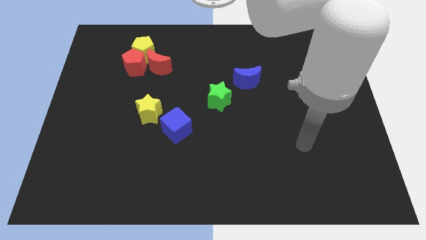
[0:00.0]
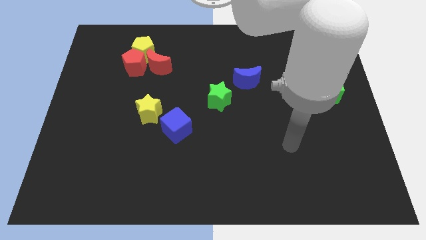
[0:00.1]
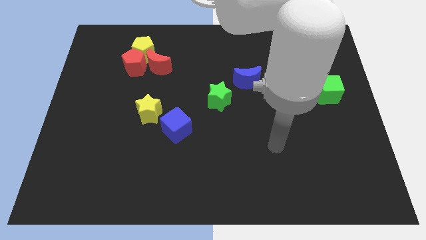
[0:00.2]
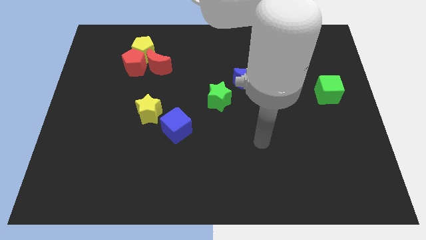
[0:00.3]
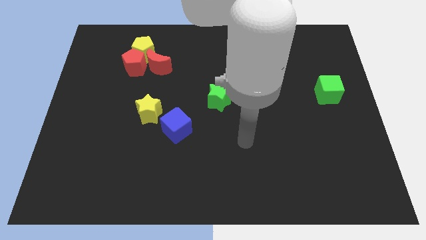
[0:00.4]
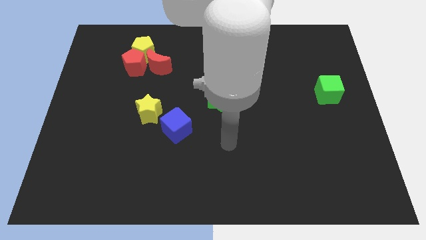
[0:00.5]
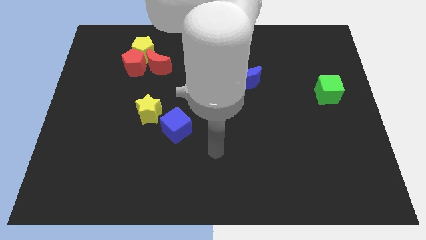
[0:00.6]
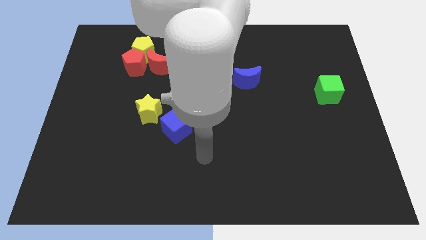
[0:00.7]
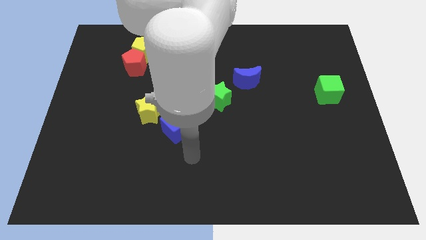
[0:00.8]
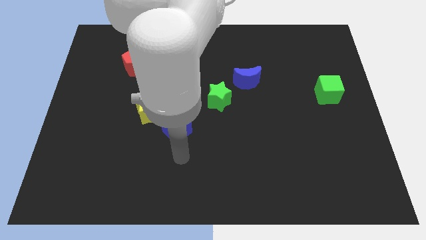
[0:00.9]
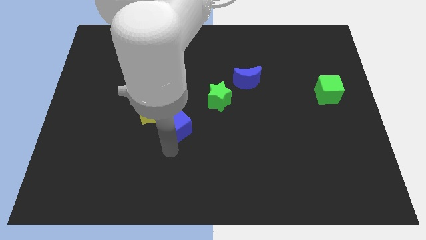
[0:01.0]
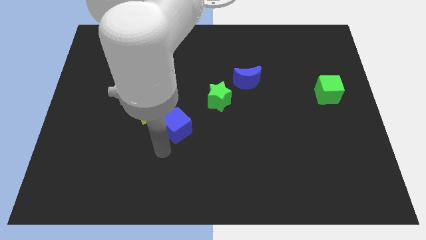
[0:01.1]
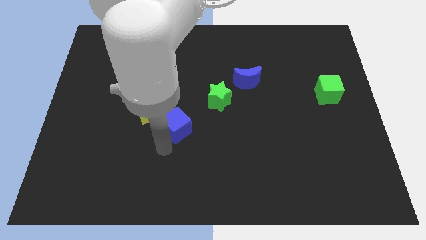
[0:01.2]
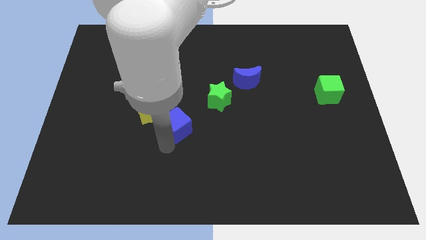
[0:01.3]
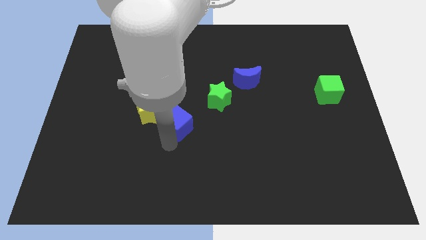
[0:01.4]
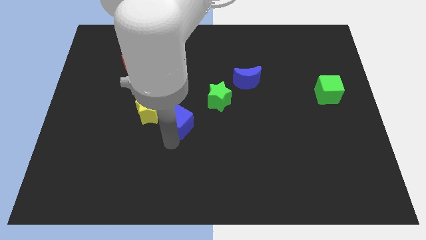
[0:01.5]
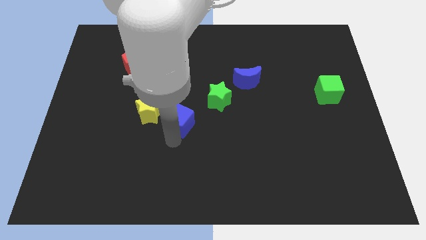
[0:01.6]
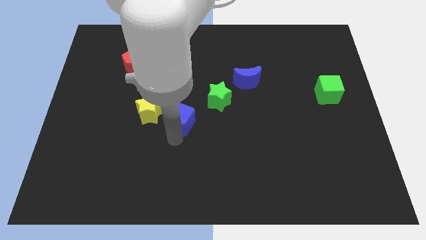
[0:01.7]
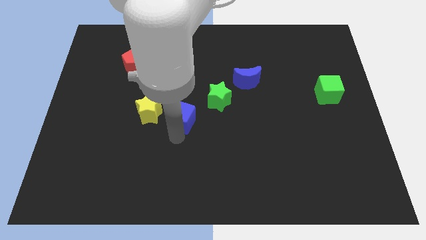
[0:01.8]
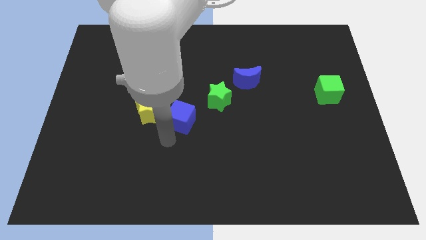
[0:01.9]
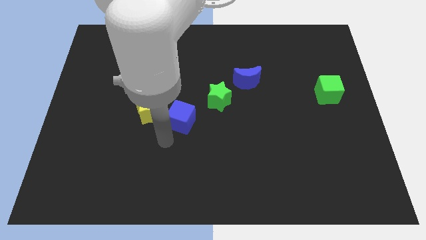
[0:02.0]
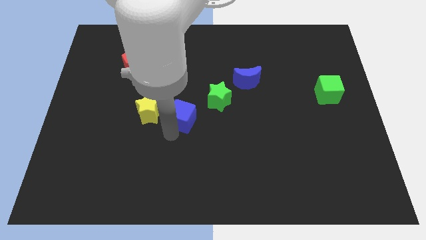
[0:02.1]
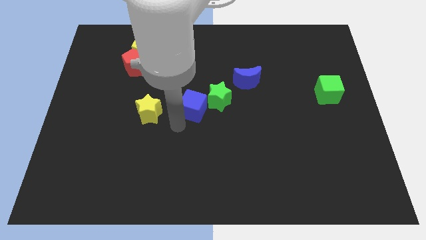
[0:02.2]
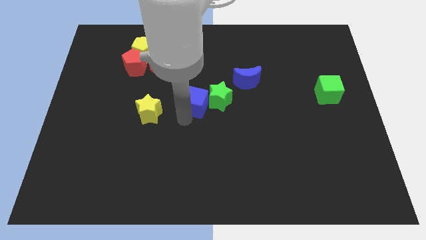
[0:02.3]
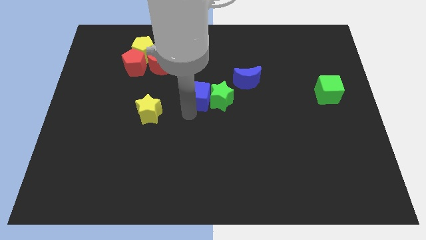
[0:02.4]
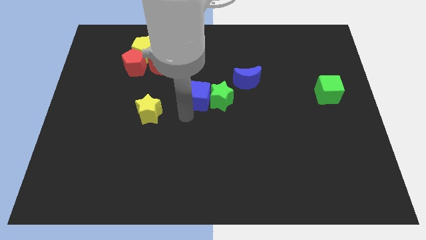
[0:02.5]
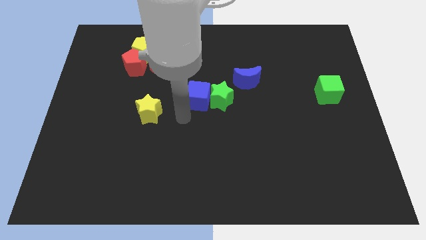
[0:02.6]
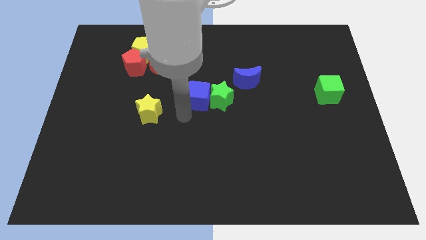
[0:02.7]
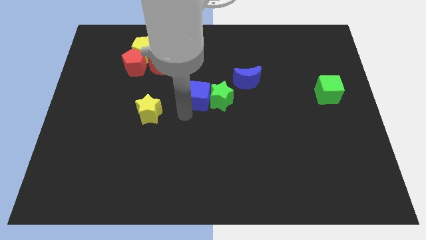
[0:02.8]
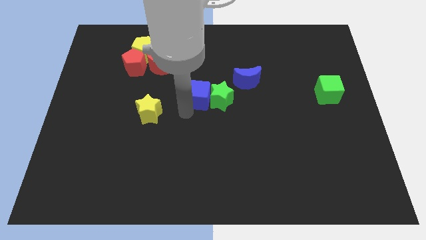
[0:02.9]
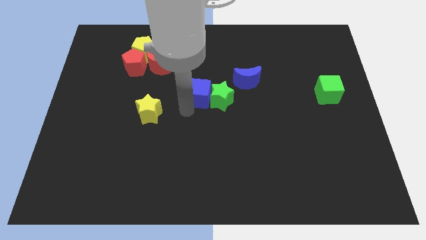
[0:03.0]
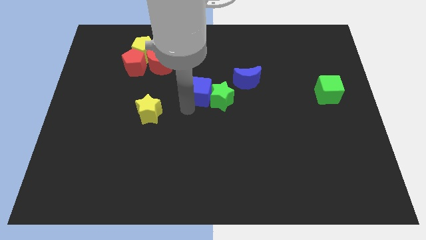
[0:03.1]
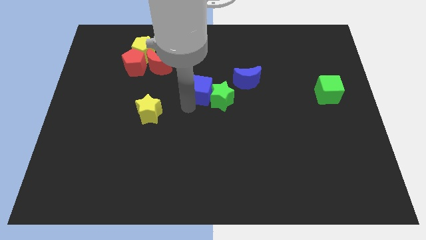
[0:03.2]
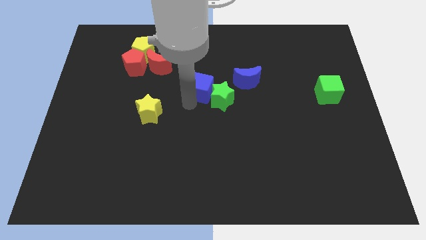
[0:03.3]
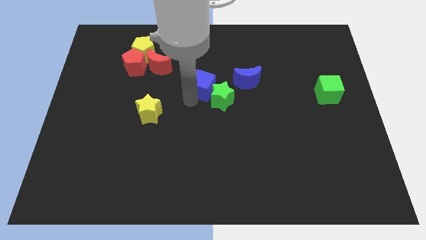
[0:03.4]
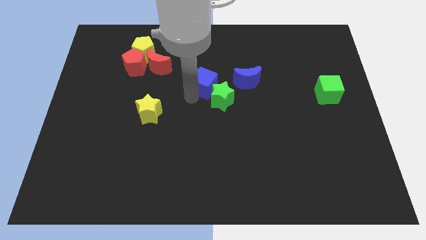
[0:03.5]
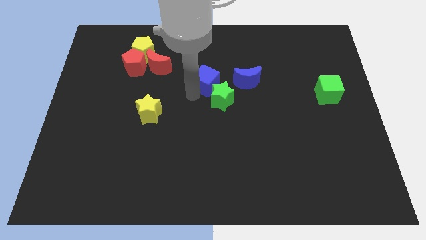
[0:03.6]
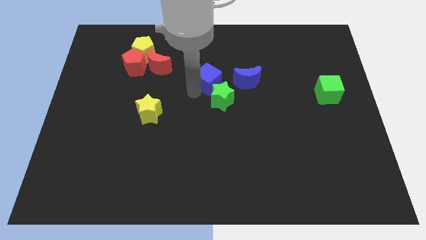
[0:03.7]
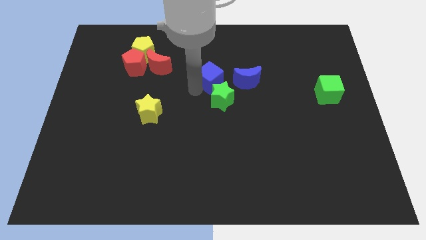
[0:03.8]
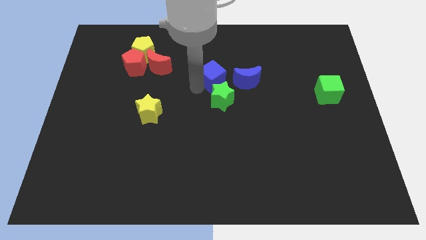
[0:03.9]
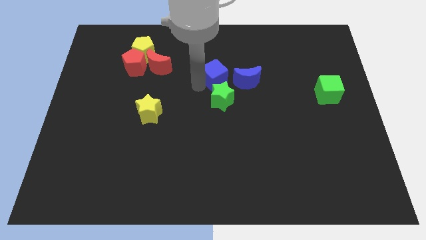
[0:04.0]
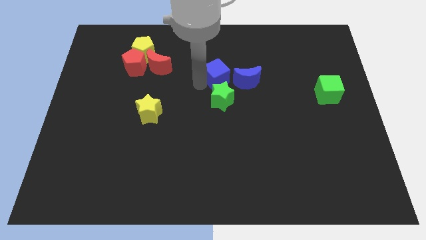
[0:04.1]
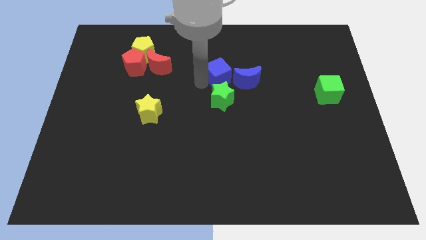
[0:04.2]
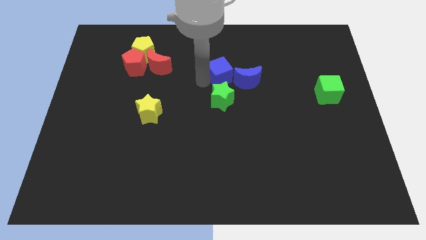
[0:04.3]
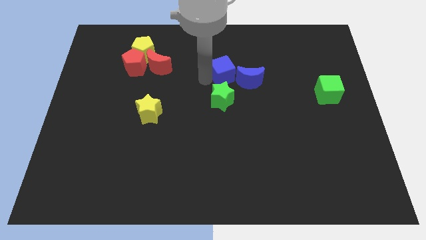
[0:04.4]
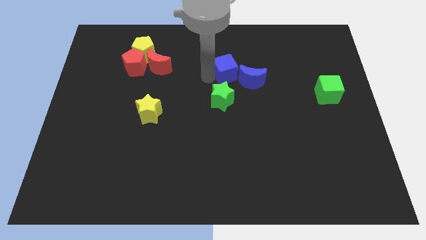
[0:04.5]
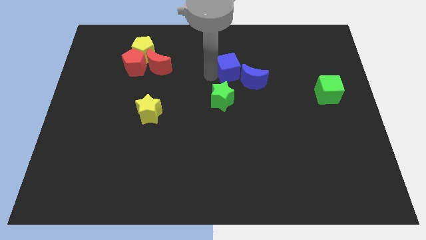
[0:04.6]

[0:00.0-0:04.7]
slide the blue cube up and to the right diagonally

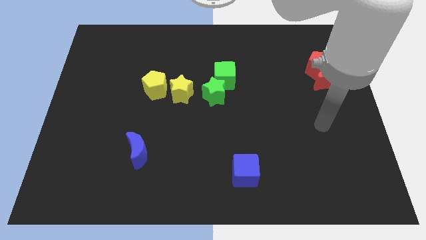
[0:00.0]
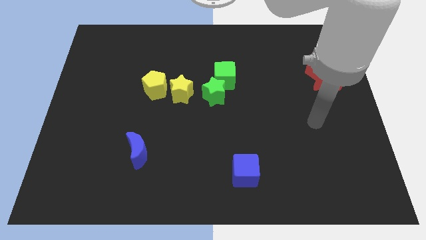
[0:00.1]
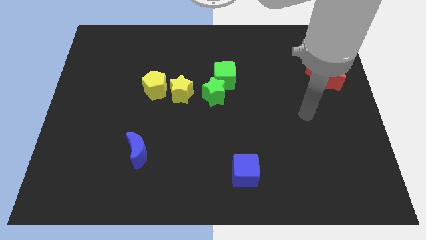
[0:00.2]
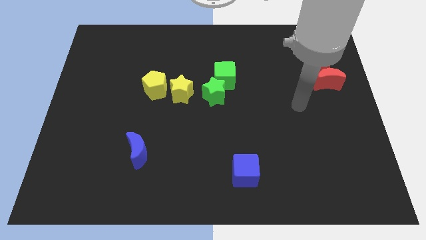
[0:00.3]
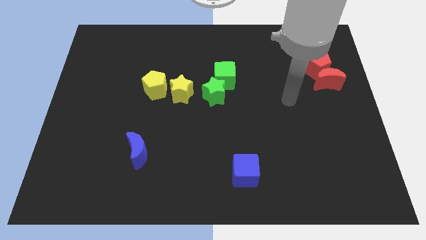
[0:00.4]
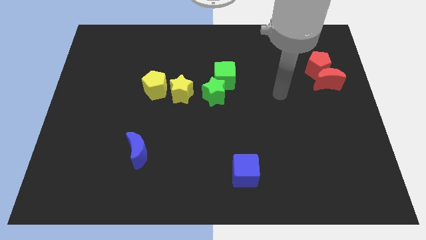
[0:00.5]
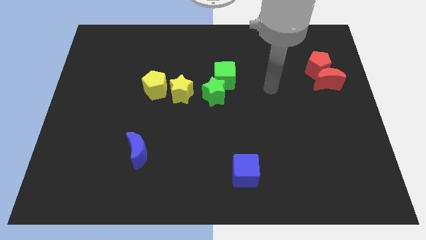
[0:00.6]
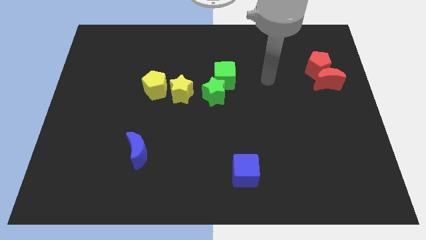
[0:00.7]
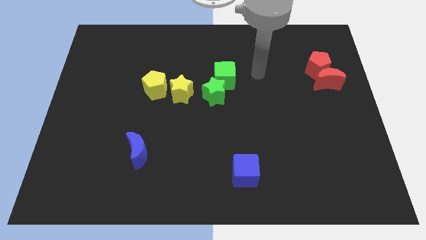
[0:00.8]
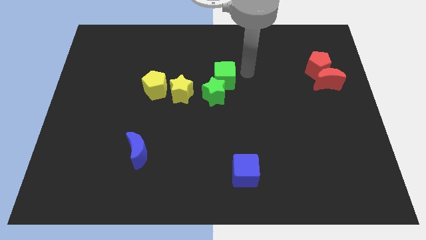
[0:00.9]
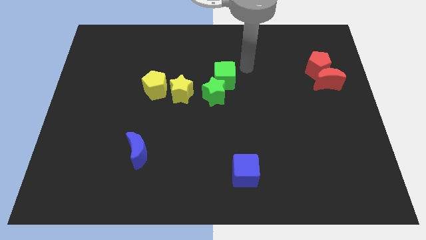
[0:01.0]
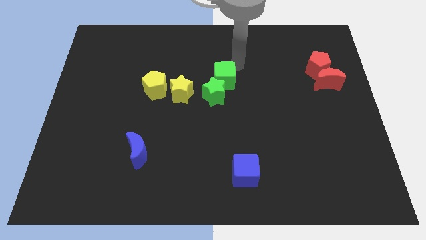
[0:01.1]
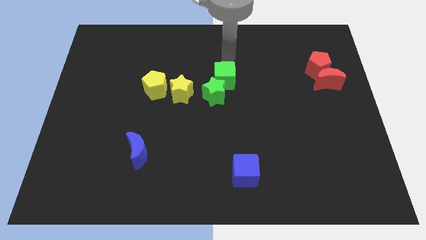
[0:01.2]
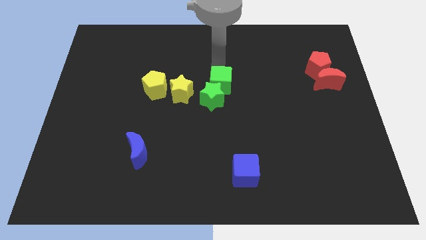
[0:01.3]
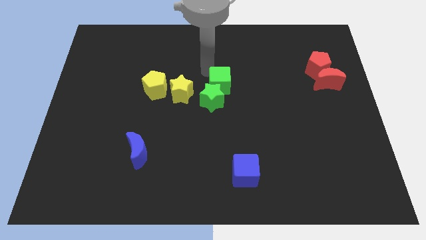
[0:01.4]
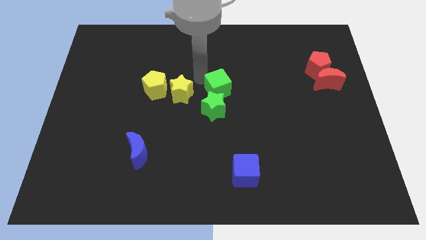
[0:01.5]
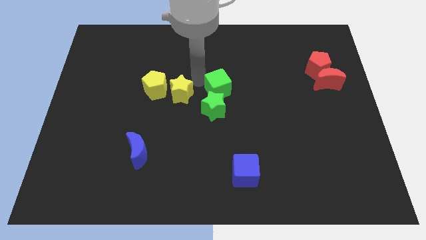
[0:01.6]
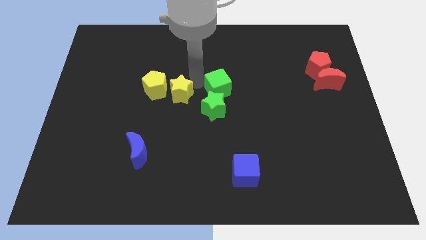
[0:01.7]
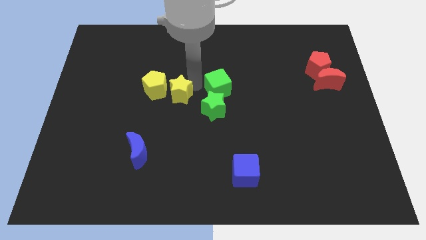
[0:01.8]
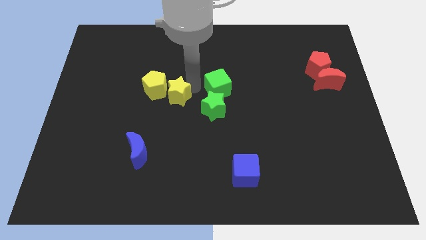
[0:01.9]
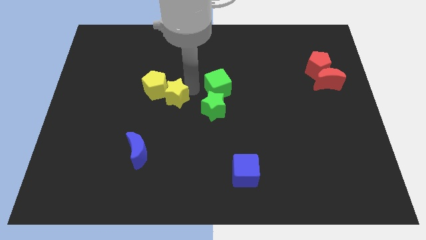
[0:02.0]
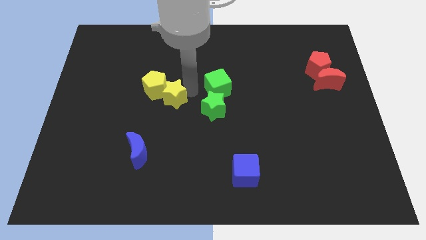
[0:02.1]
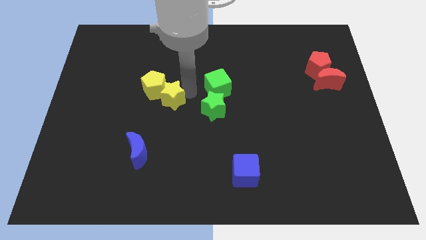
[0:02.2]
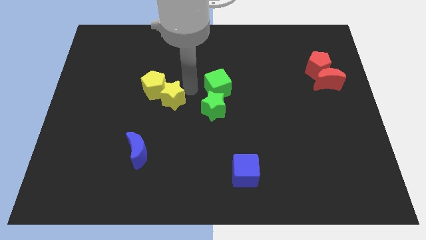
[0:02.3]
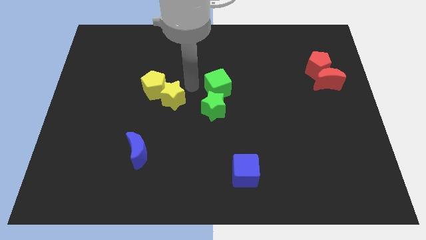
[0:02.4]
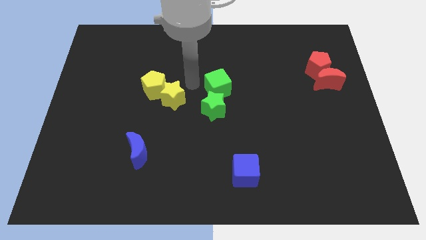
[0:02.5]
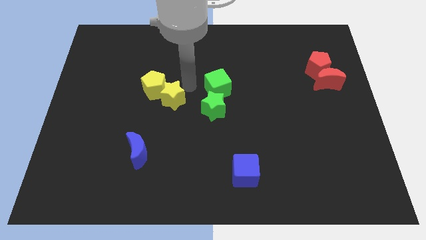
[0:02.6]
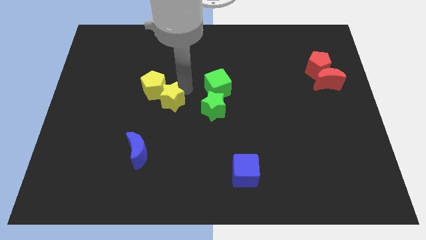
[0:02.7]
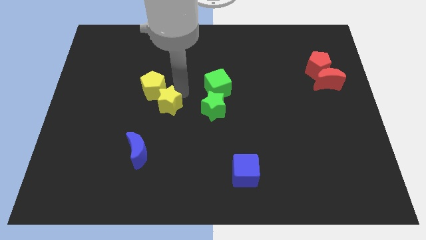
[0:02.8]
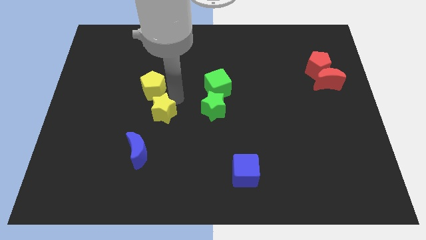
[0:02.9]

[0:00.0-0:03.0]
slightly push the yellow star down and left diagonally

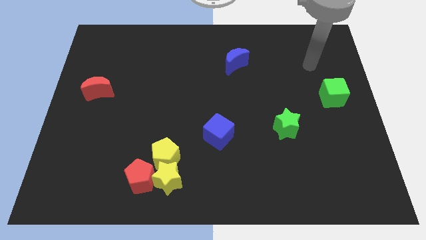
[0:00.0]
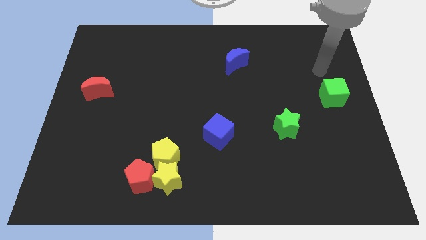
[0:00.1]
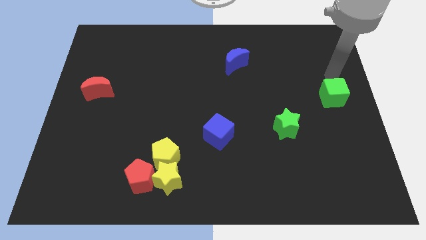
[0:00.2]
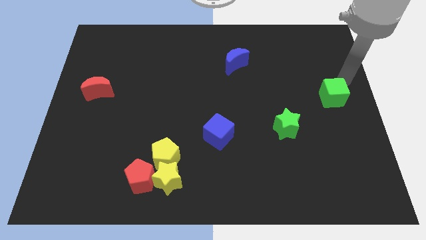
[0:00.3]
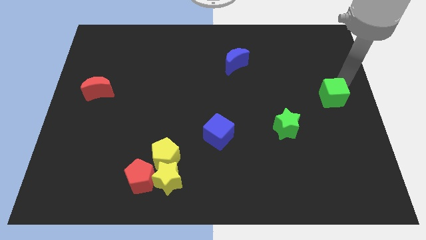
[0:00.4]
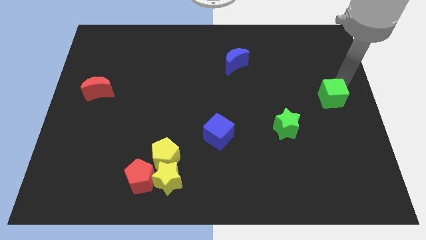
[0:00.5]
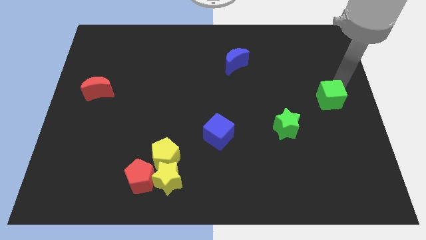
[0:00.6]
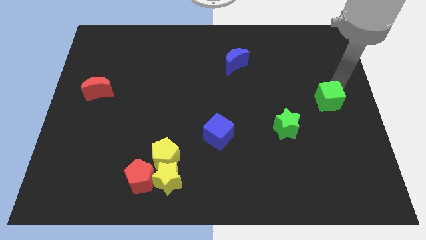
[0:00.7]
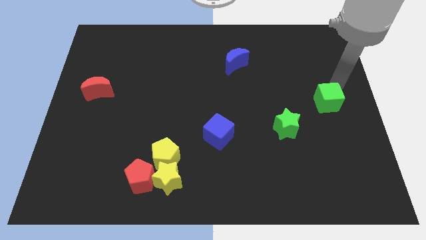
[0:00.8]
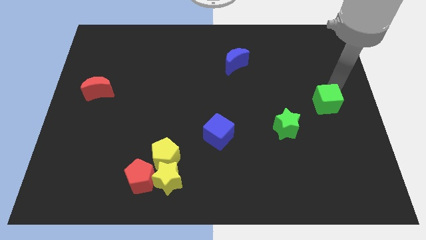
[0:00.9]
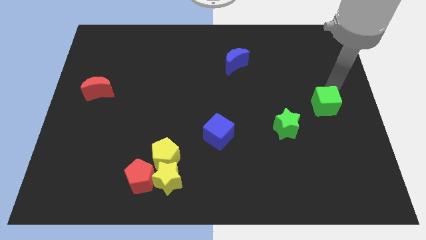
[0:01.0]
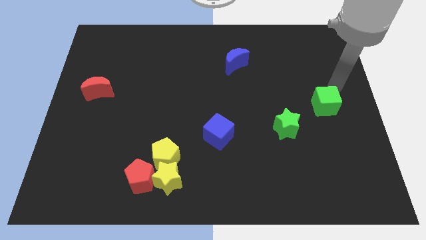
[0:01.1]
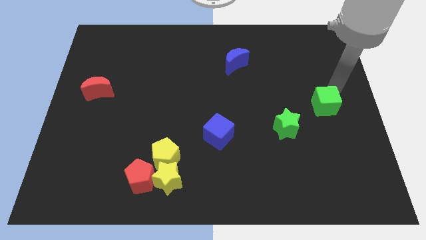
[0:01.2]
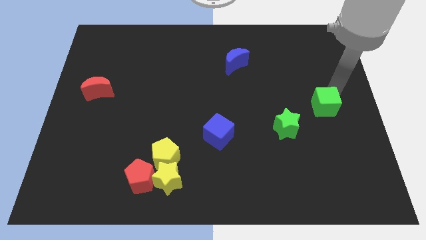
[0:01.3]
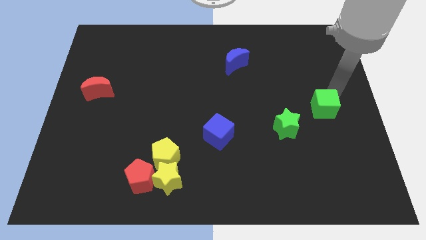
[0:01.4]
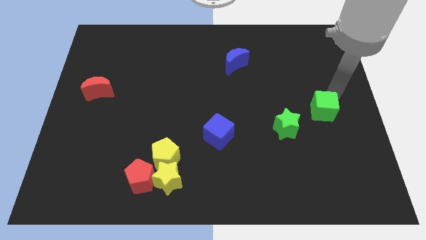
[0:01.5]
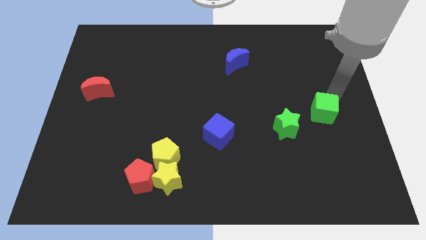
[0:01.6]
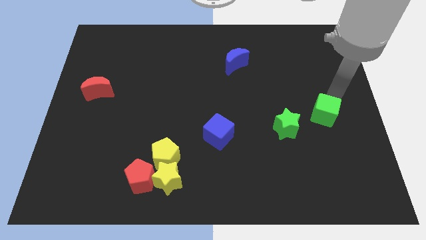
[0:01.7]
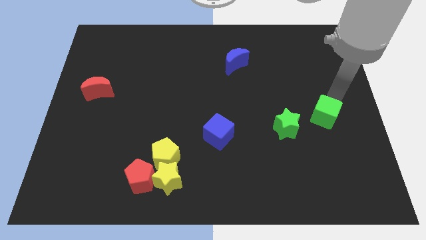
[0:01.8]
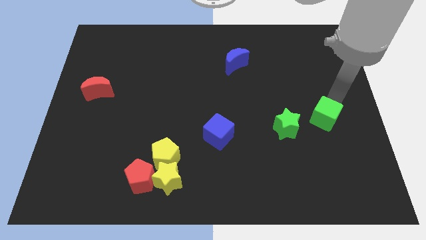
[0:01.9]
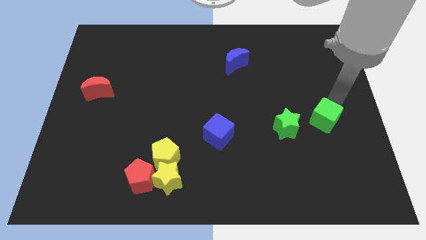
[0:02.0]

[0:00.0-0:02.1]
move the green cube downwards and then left a little
